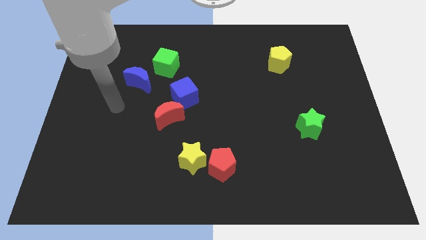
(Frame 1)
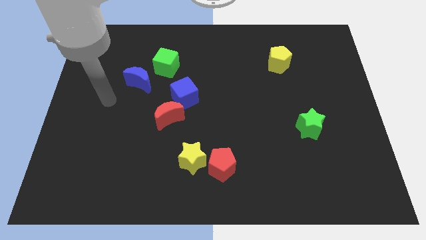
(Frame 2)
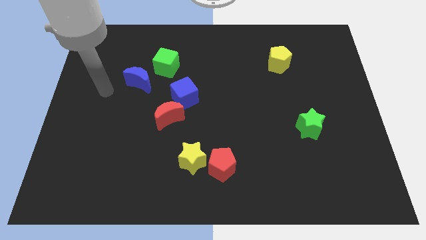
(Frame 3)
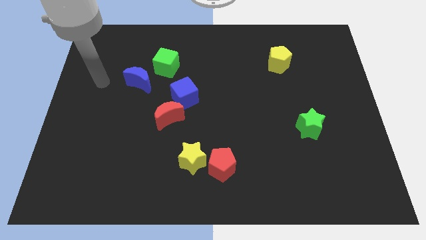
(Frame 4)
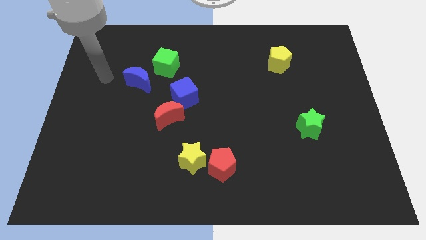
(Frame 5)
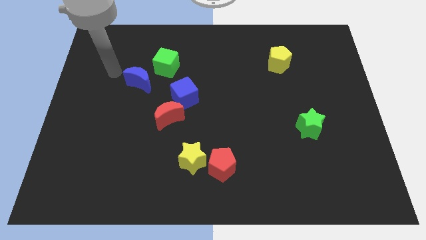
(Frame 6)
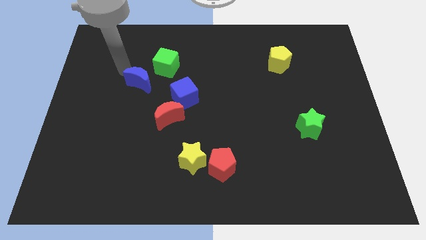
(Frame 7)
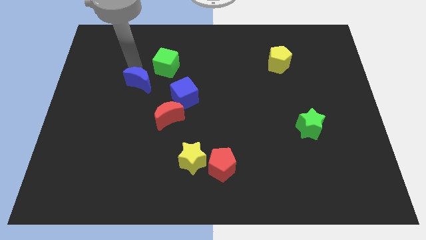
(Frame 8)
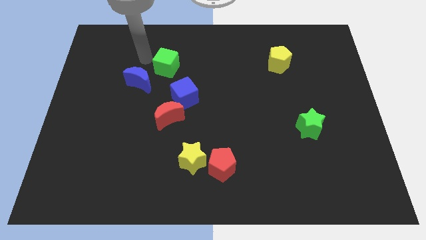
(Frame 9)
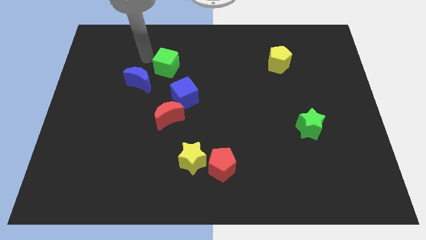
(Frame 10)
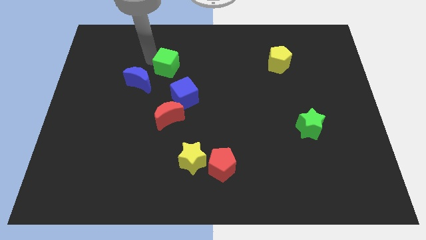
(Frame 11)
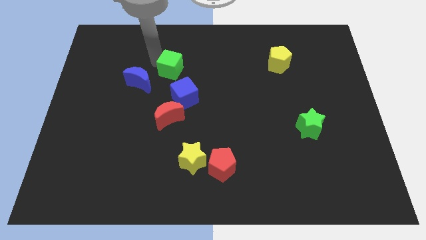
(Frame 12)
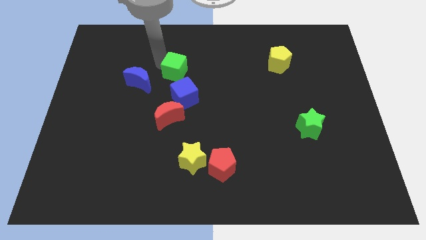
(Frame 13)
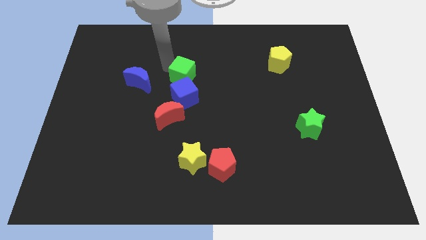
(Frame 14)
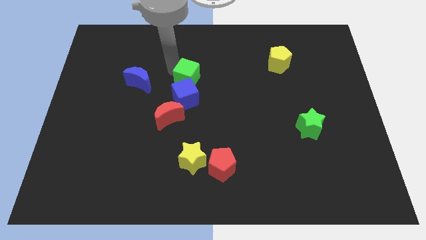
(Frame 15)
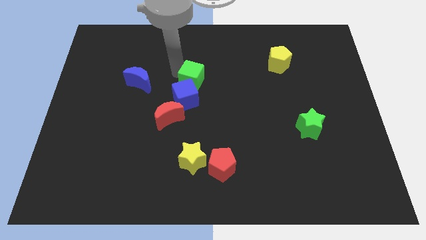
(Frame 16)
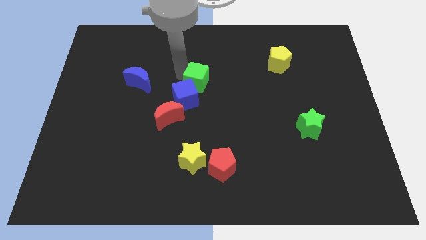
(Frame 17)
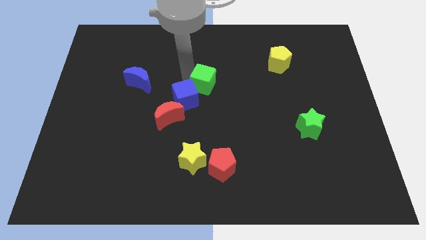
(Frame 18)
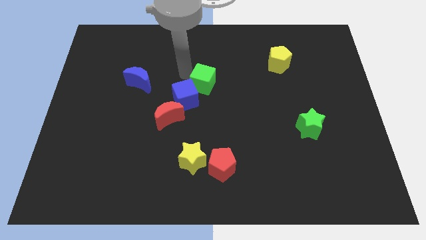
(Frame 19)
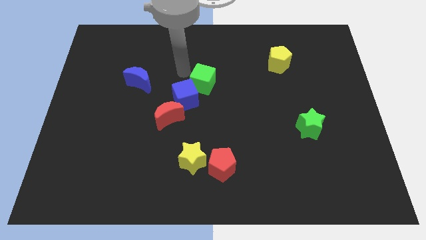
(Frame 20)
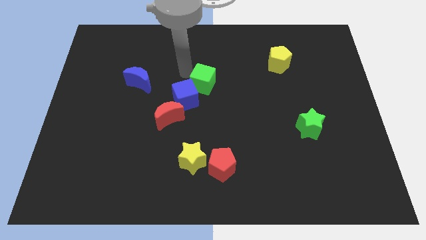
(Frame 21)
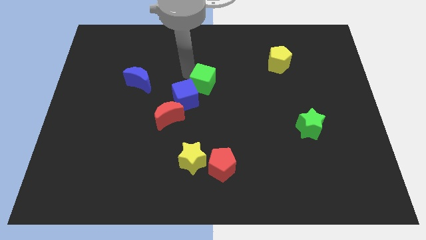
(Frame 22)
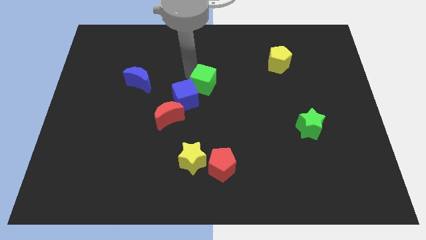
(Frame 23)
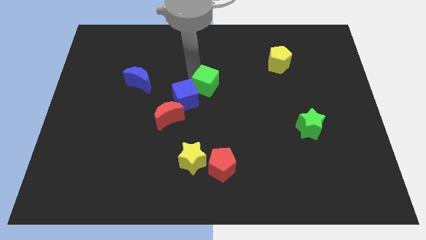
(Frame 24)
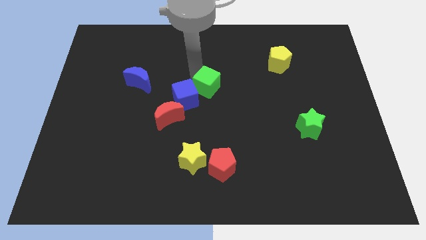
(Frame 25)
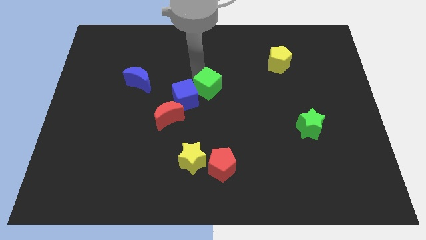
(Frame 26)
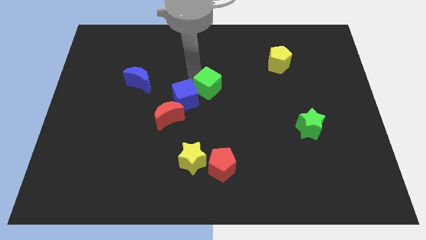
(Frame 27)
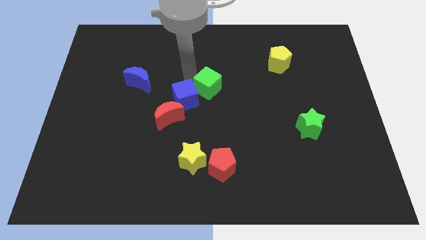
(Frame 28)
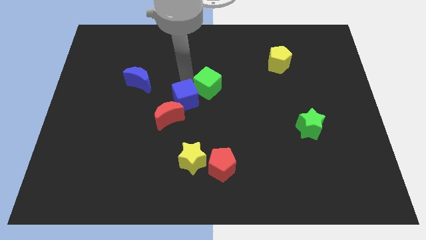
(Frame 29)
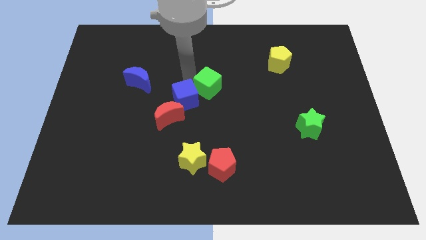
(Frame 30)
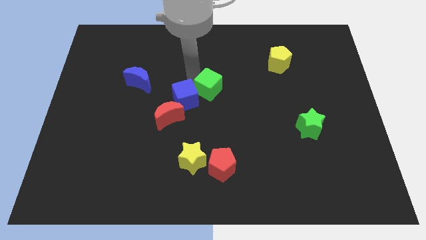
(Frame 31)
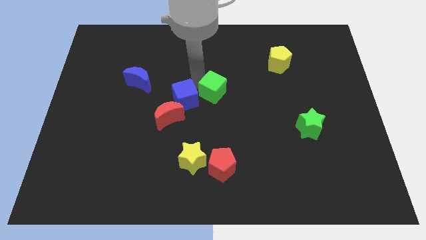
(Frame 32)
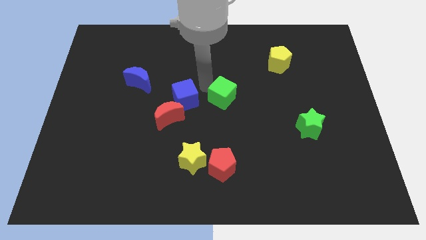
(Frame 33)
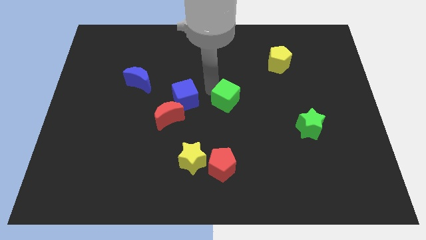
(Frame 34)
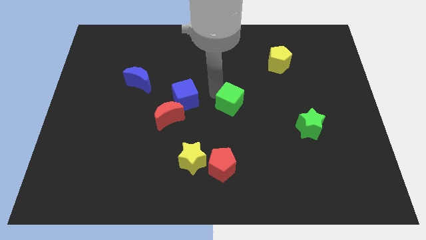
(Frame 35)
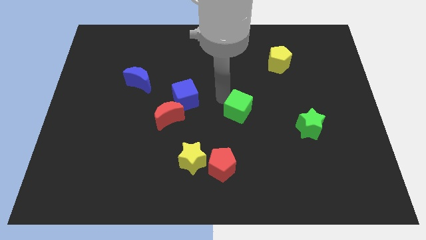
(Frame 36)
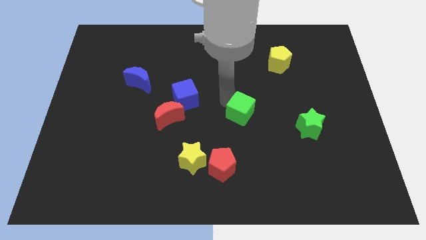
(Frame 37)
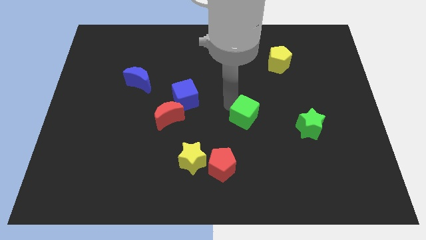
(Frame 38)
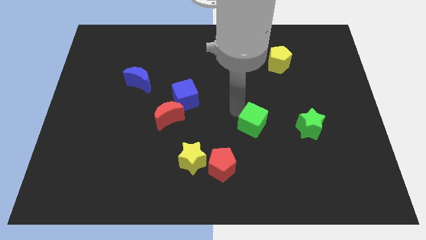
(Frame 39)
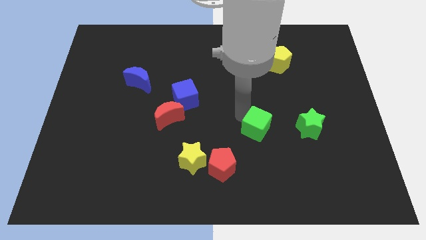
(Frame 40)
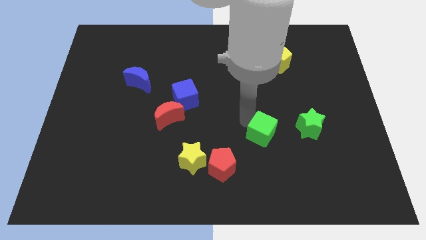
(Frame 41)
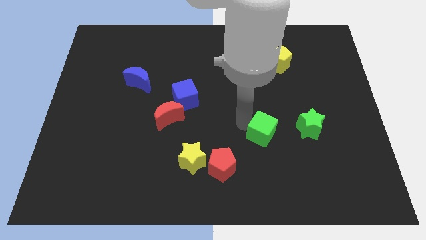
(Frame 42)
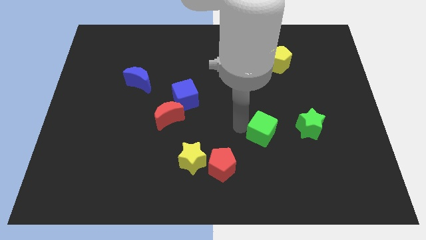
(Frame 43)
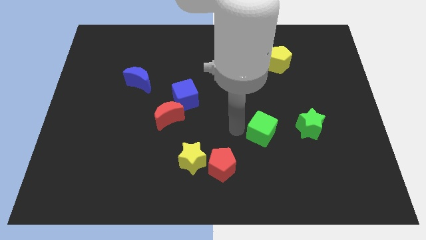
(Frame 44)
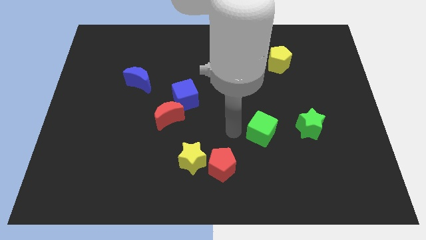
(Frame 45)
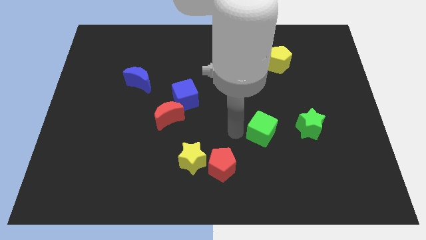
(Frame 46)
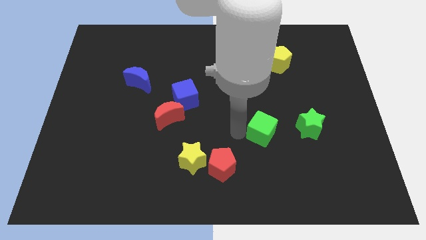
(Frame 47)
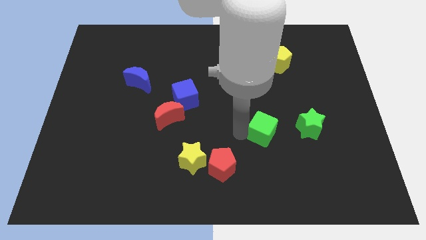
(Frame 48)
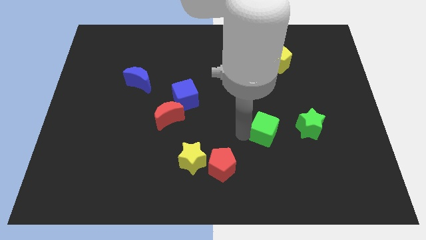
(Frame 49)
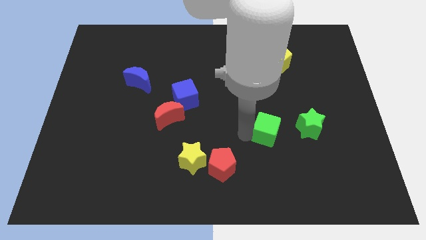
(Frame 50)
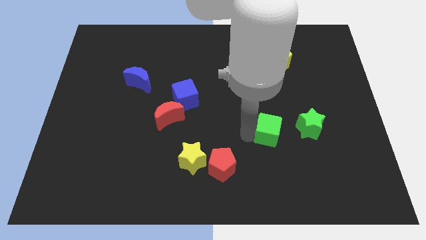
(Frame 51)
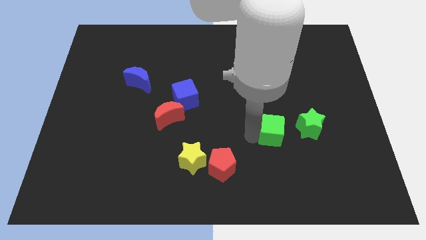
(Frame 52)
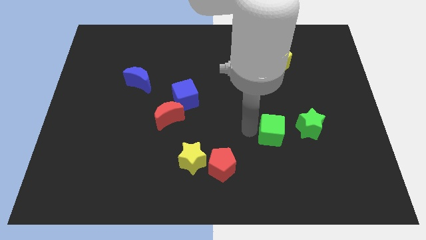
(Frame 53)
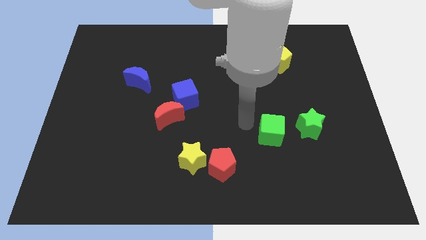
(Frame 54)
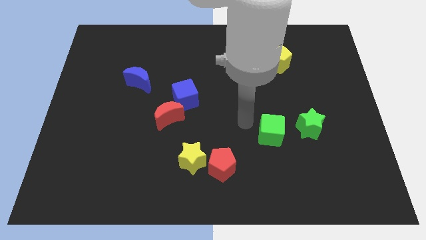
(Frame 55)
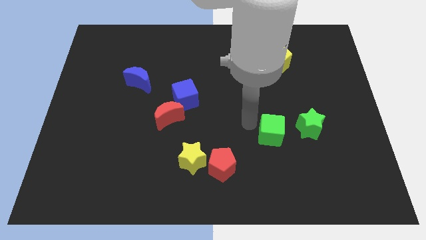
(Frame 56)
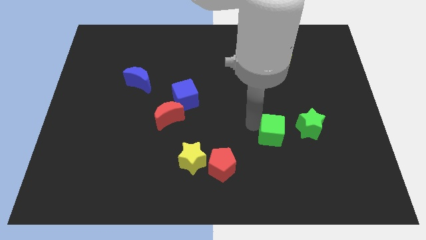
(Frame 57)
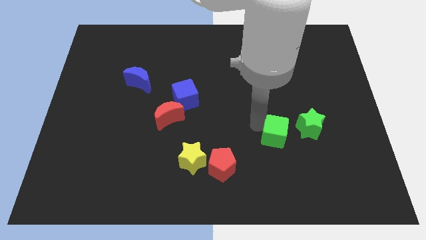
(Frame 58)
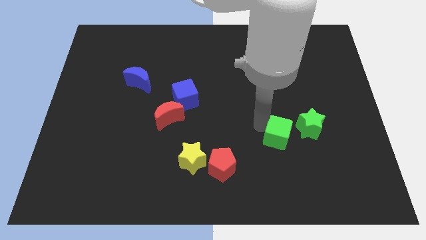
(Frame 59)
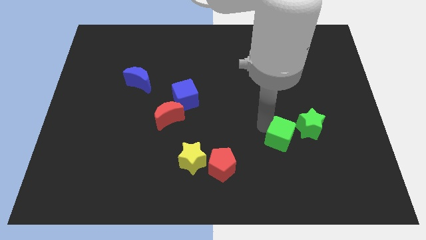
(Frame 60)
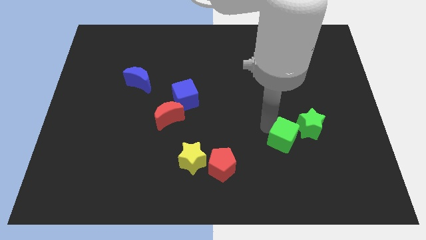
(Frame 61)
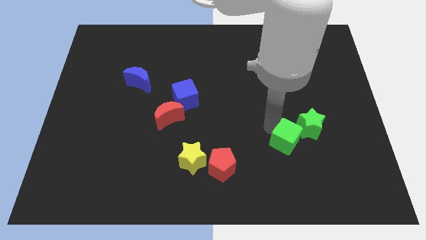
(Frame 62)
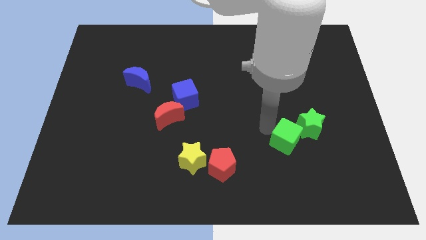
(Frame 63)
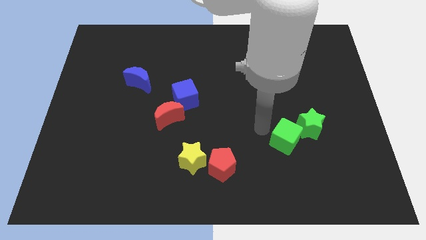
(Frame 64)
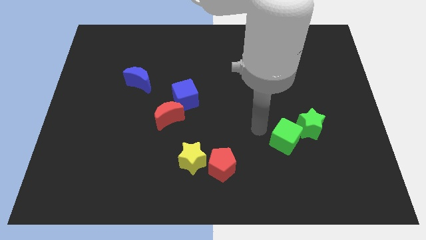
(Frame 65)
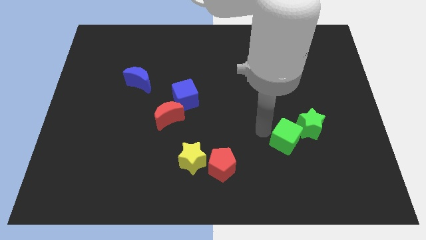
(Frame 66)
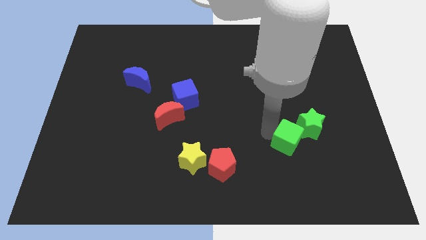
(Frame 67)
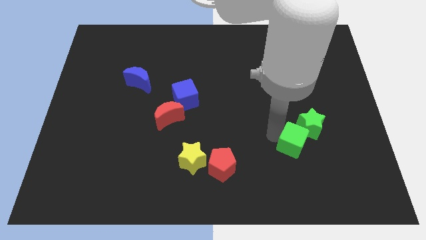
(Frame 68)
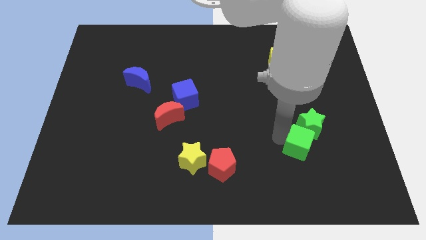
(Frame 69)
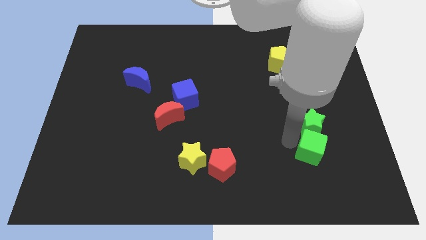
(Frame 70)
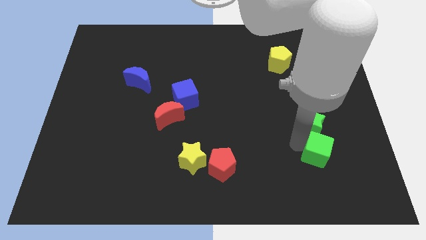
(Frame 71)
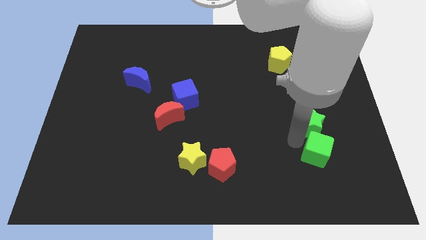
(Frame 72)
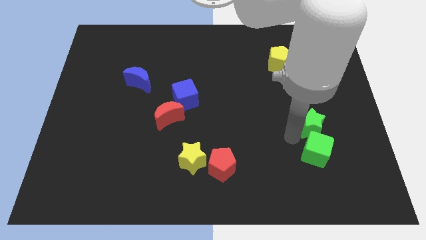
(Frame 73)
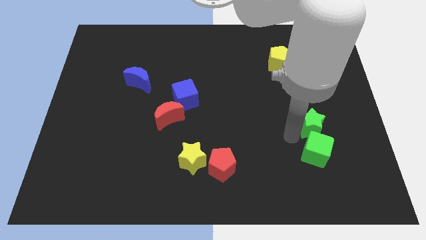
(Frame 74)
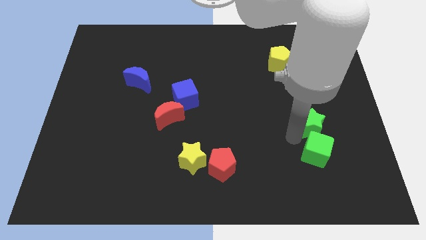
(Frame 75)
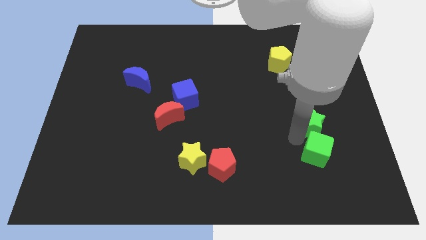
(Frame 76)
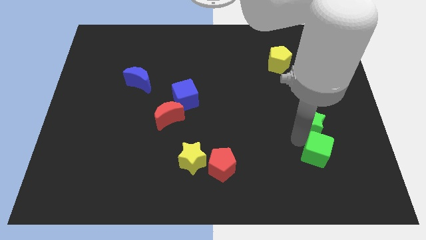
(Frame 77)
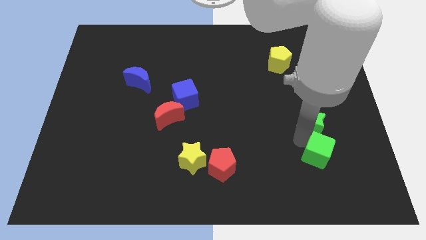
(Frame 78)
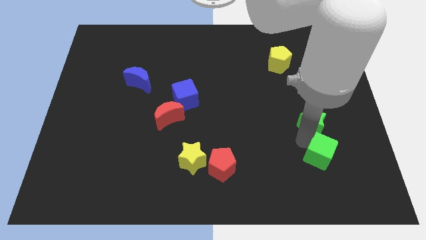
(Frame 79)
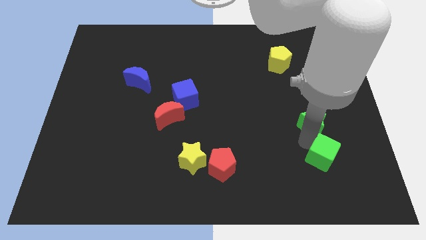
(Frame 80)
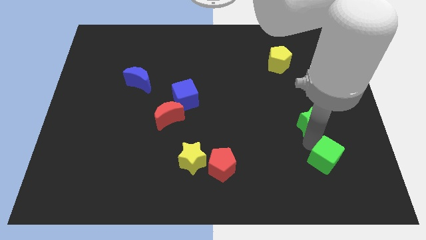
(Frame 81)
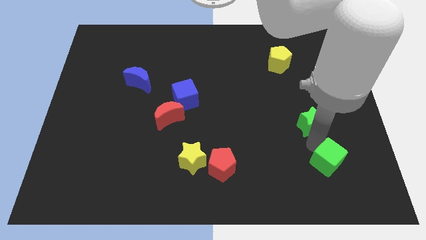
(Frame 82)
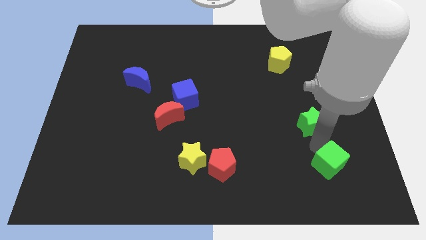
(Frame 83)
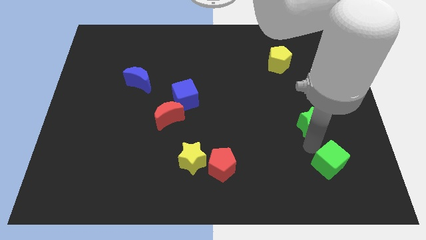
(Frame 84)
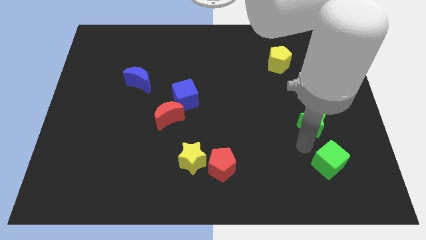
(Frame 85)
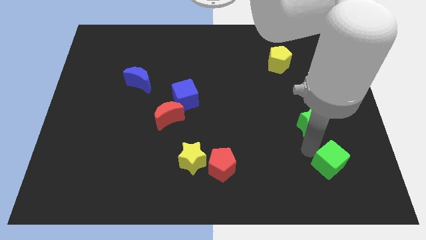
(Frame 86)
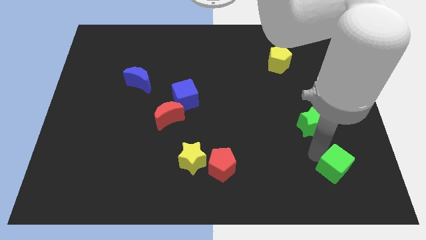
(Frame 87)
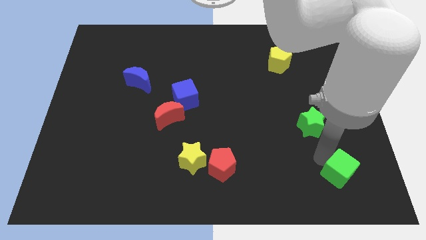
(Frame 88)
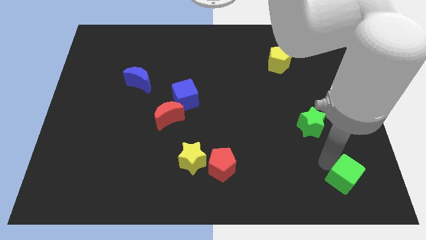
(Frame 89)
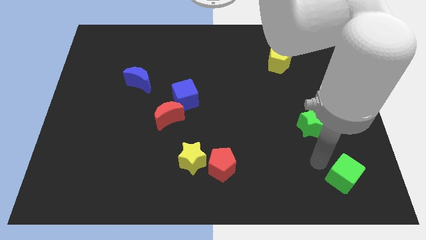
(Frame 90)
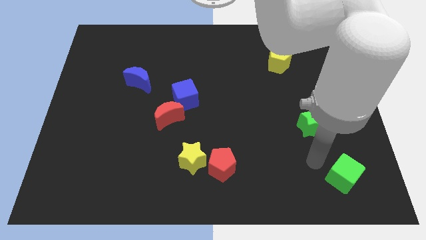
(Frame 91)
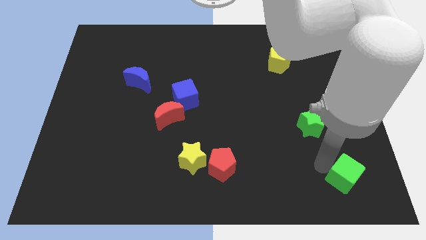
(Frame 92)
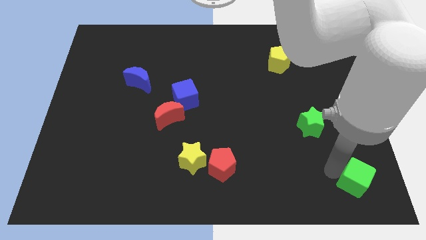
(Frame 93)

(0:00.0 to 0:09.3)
put the green cube to the bottom right
